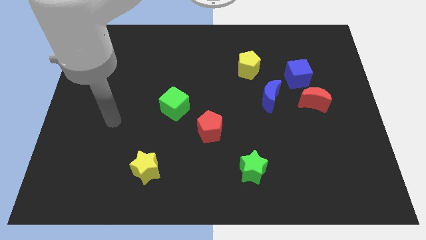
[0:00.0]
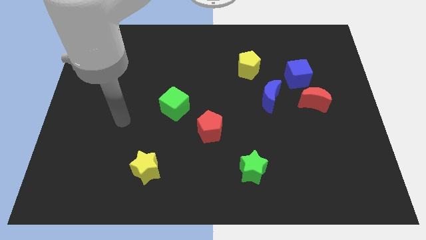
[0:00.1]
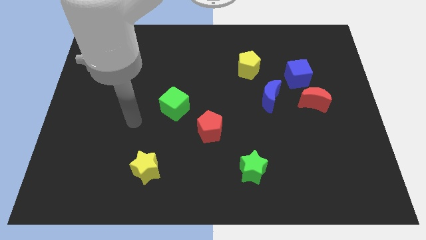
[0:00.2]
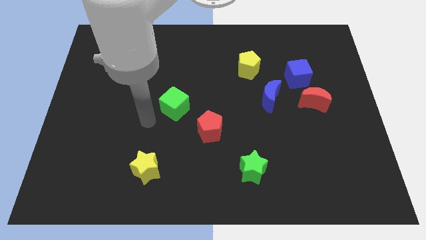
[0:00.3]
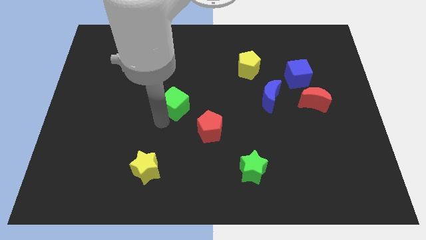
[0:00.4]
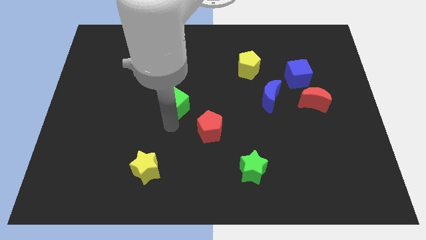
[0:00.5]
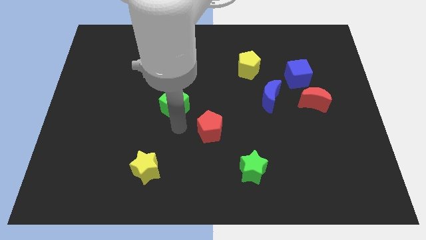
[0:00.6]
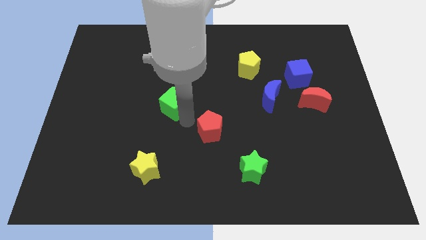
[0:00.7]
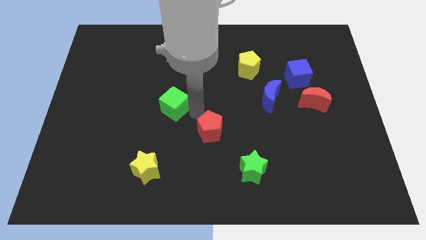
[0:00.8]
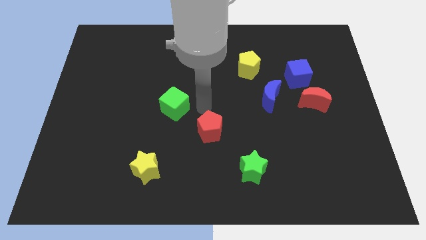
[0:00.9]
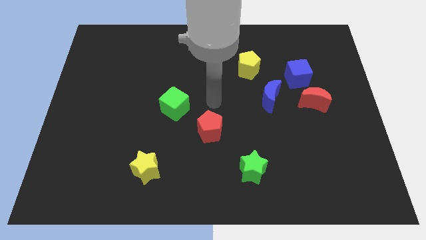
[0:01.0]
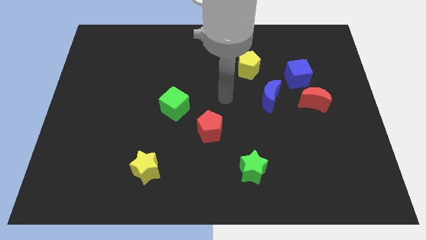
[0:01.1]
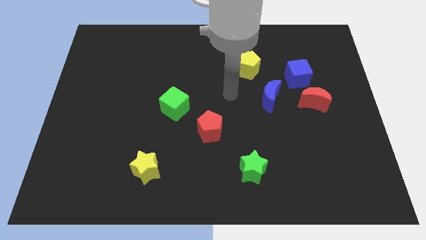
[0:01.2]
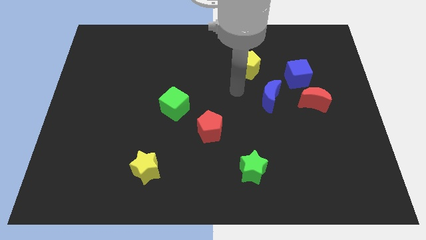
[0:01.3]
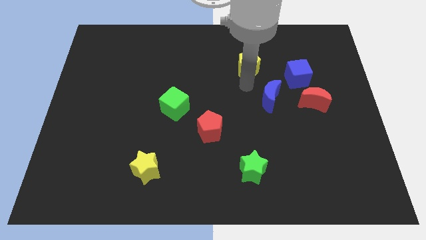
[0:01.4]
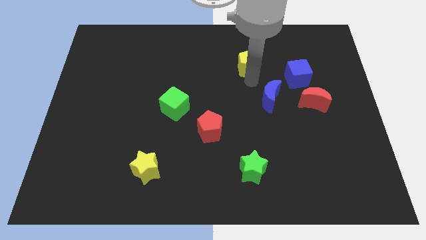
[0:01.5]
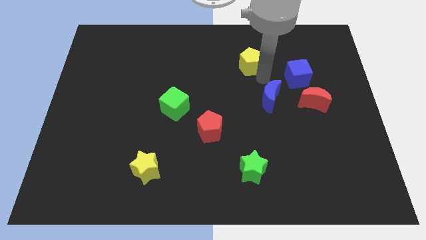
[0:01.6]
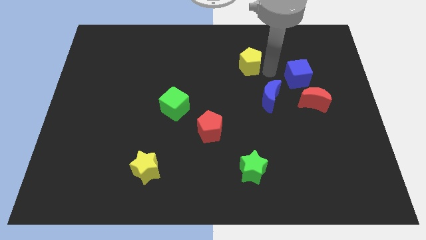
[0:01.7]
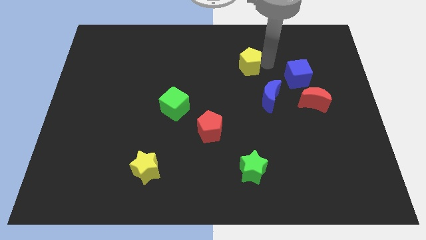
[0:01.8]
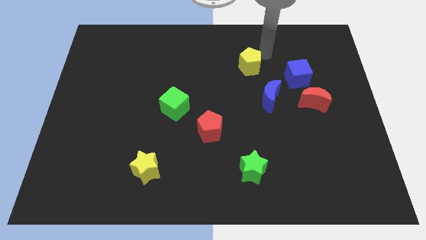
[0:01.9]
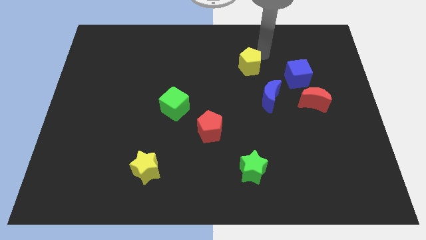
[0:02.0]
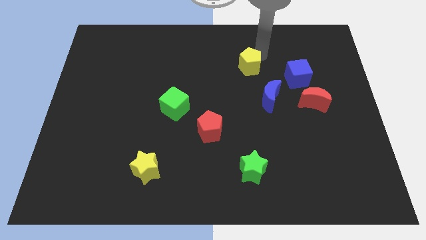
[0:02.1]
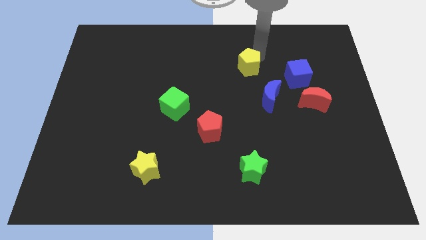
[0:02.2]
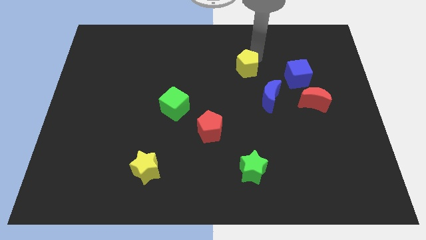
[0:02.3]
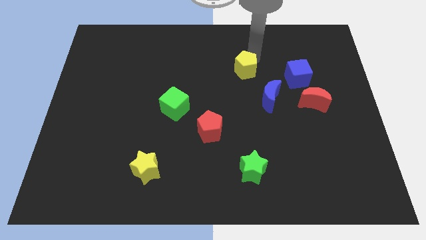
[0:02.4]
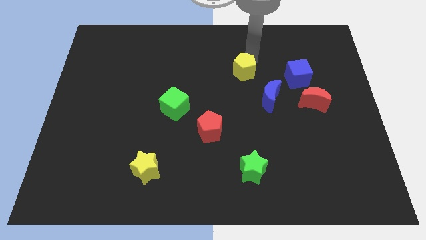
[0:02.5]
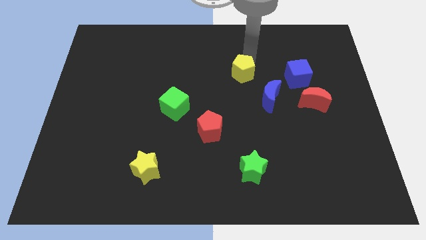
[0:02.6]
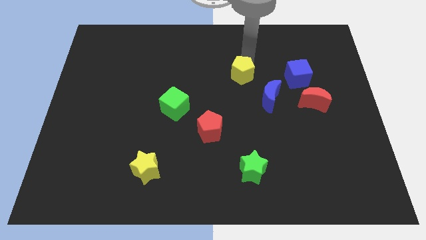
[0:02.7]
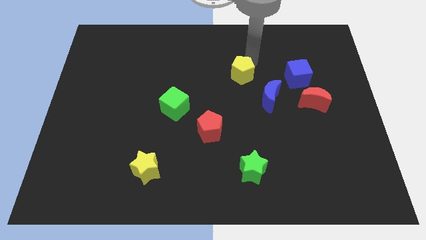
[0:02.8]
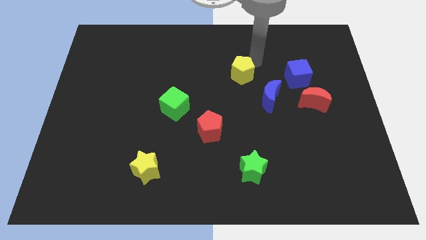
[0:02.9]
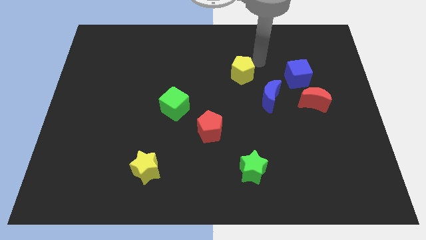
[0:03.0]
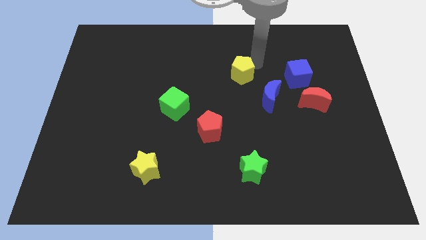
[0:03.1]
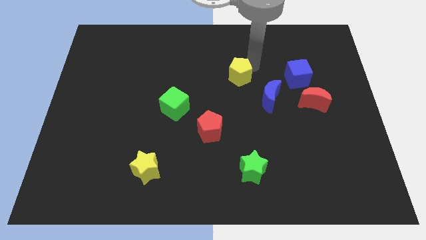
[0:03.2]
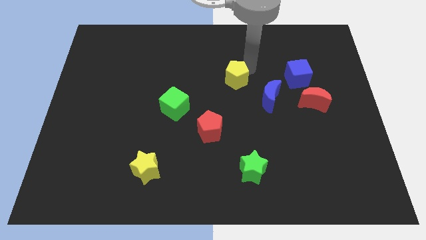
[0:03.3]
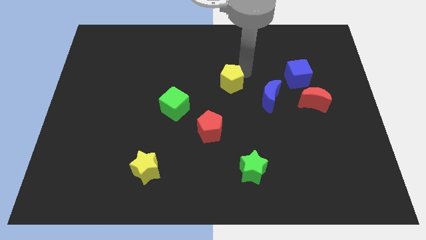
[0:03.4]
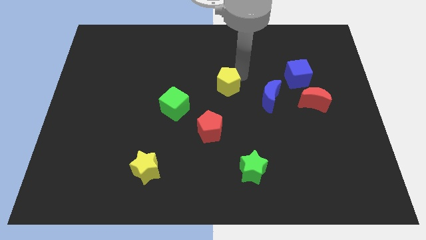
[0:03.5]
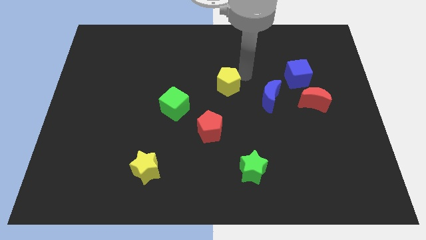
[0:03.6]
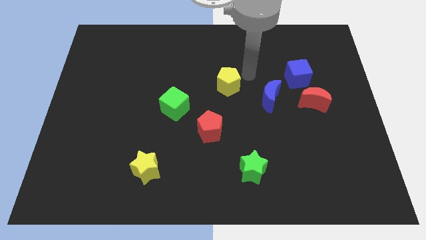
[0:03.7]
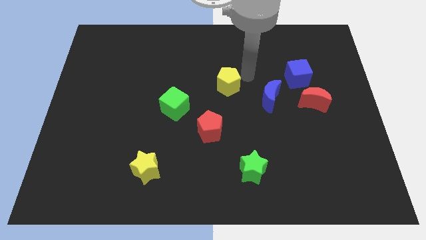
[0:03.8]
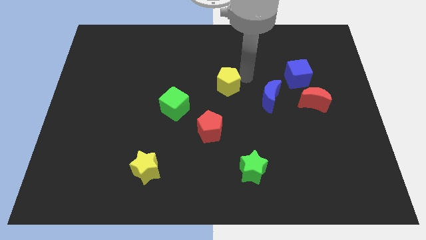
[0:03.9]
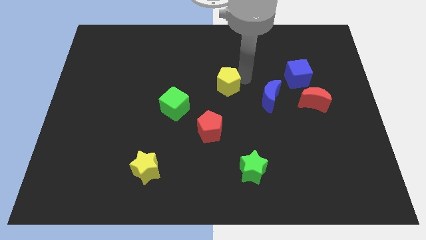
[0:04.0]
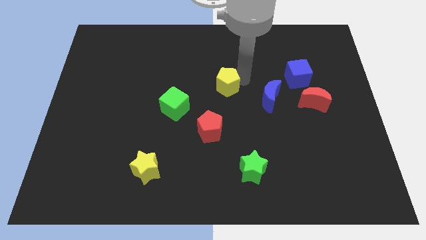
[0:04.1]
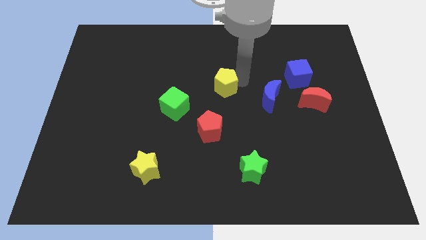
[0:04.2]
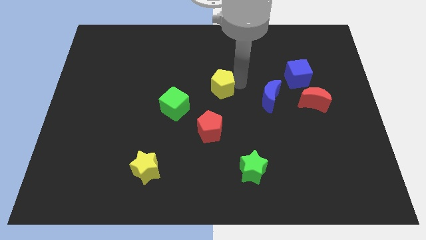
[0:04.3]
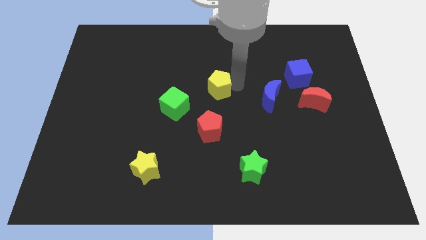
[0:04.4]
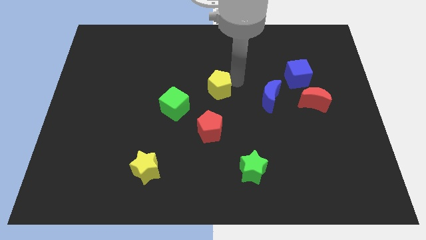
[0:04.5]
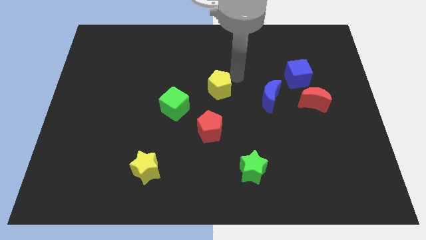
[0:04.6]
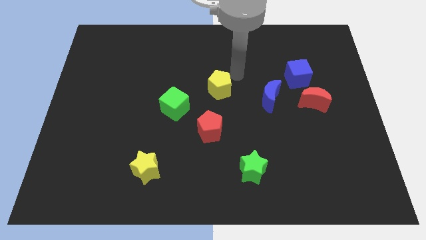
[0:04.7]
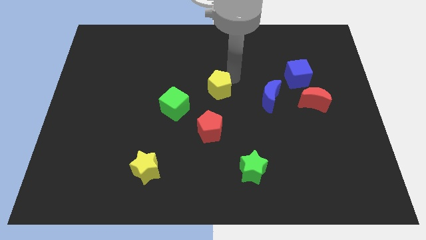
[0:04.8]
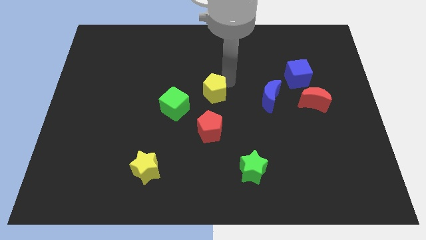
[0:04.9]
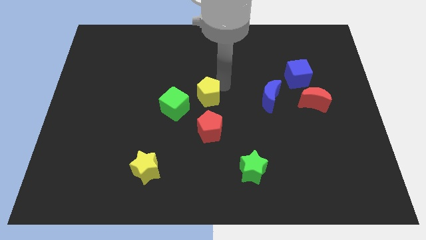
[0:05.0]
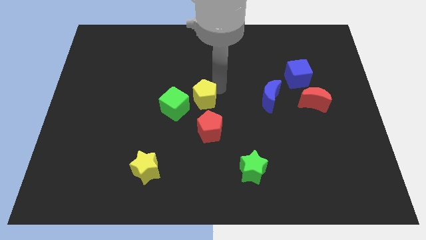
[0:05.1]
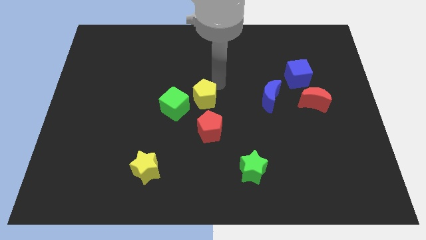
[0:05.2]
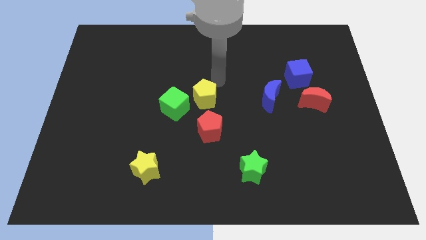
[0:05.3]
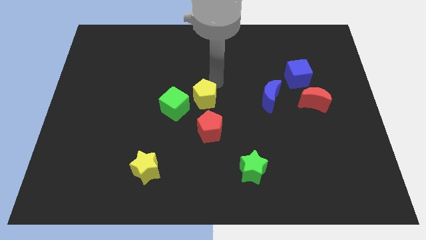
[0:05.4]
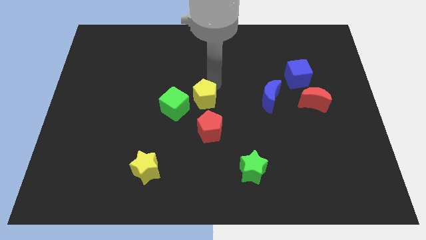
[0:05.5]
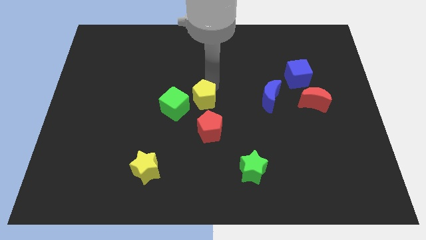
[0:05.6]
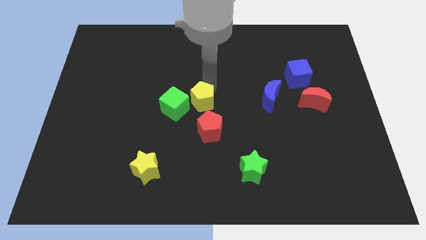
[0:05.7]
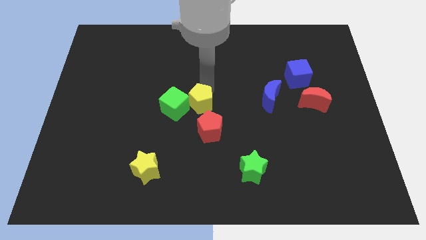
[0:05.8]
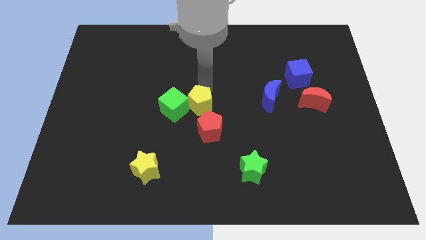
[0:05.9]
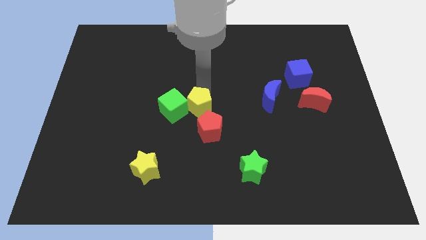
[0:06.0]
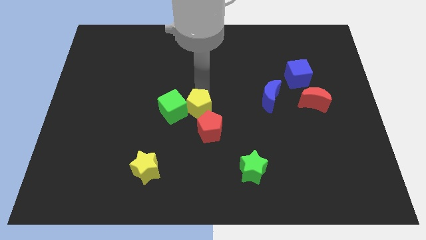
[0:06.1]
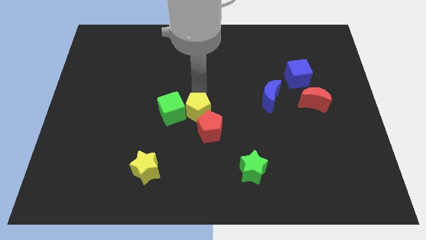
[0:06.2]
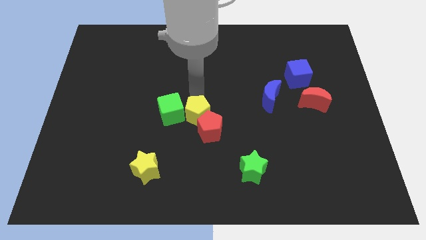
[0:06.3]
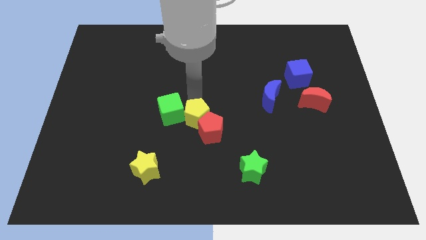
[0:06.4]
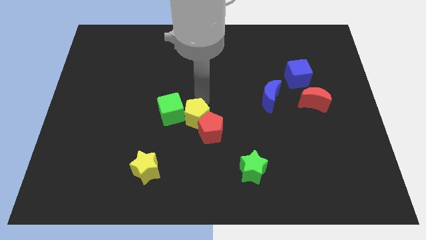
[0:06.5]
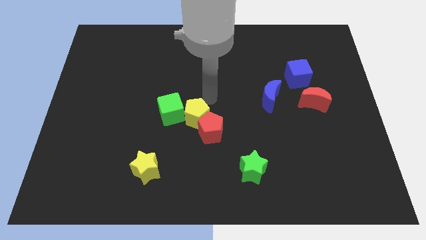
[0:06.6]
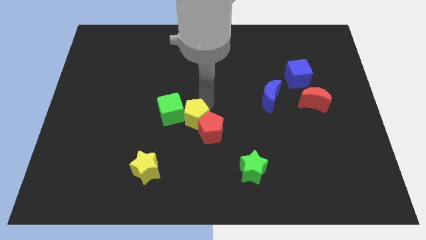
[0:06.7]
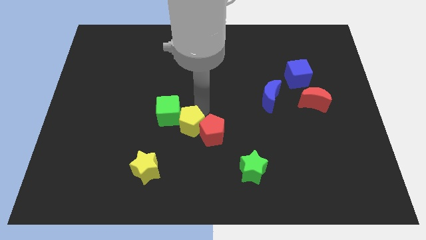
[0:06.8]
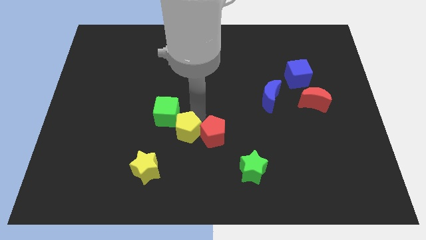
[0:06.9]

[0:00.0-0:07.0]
move the yellow pentagon to the top right side of the yellow star
